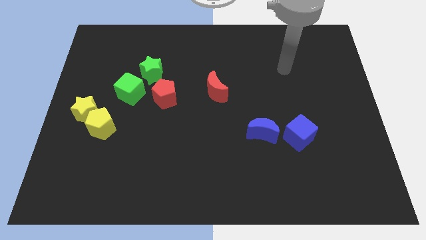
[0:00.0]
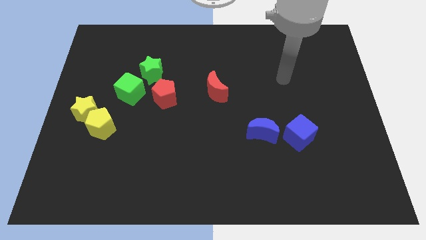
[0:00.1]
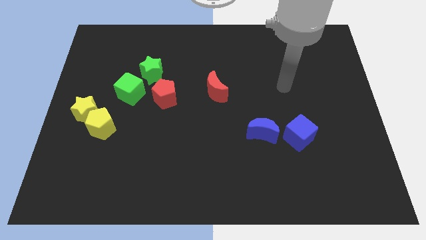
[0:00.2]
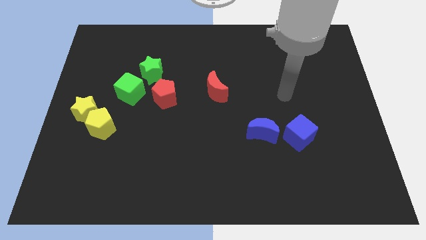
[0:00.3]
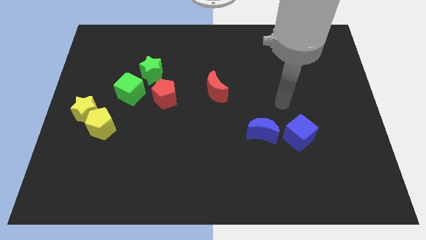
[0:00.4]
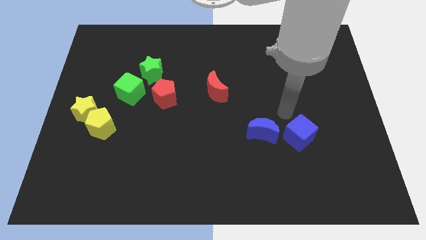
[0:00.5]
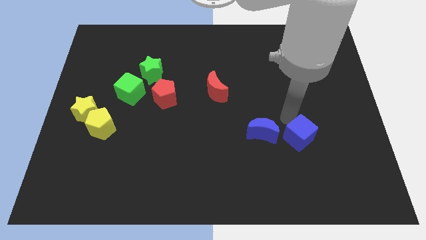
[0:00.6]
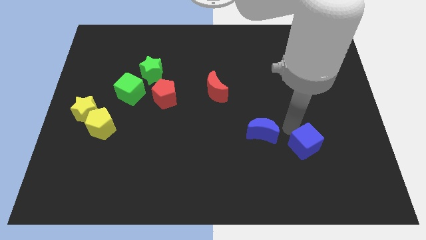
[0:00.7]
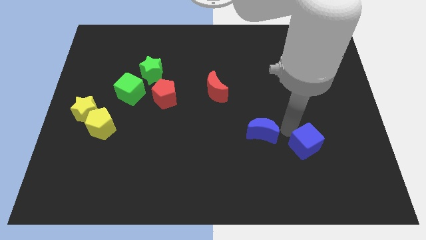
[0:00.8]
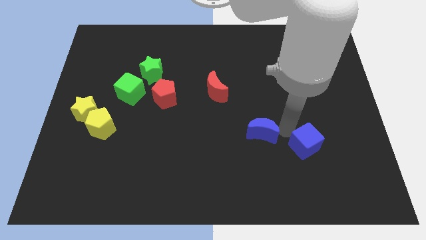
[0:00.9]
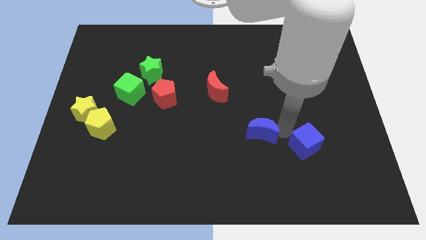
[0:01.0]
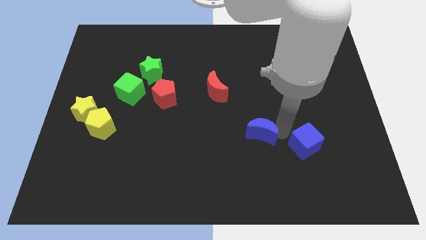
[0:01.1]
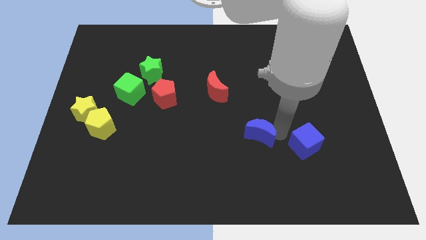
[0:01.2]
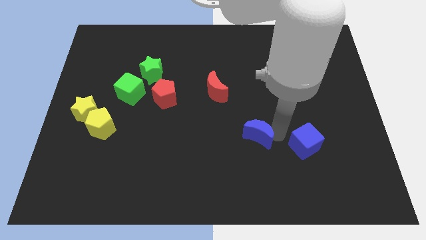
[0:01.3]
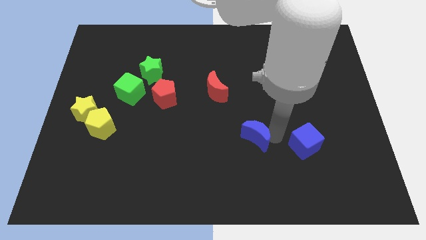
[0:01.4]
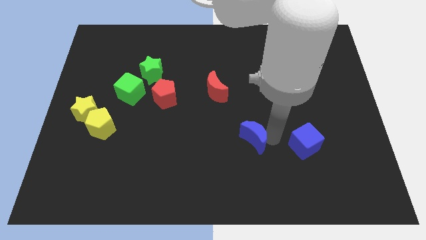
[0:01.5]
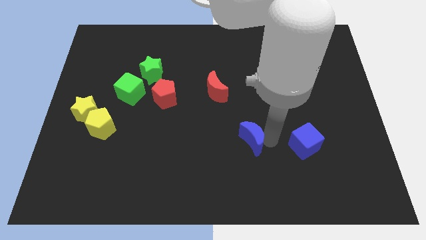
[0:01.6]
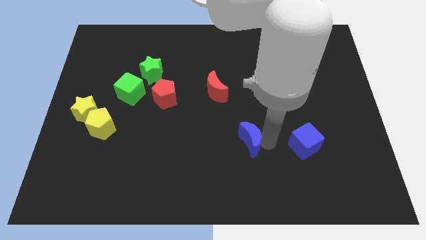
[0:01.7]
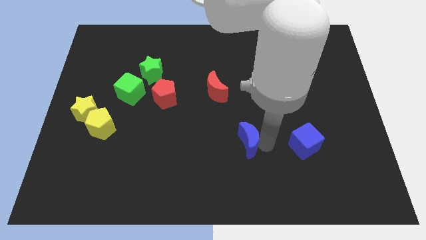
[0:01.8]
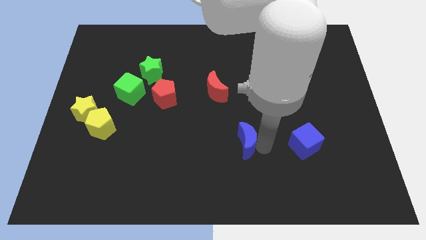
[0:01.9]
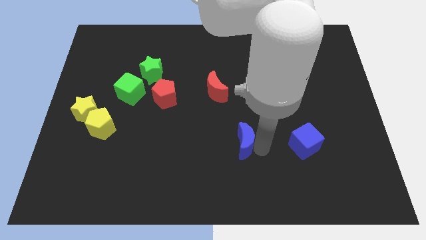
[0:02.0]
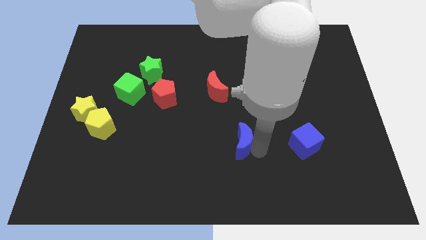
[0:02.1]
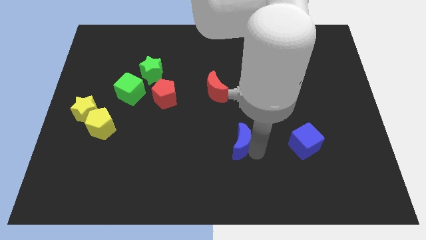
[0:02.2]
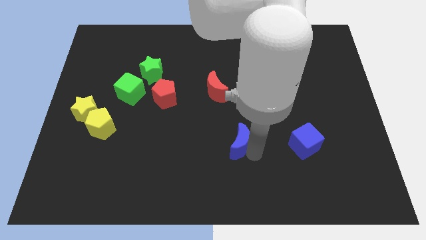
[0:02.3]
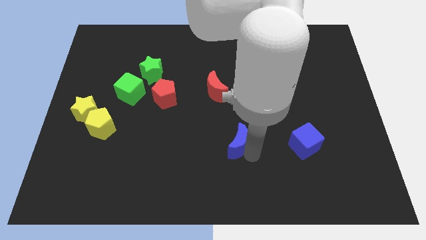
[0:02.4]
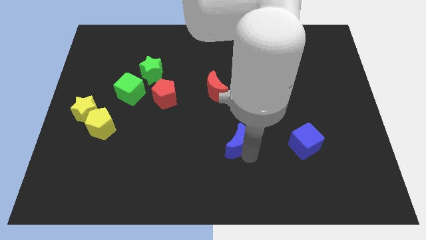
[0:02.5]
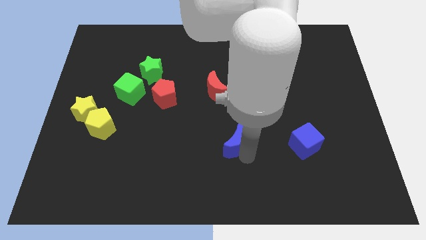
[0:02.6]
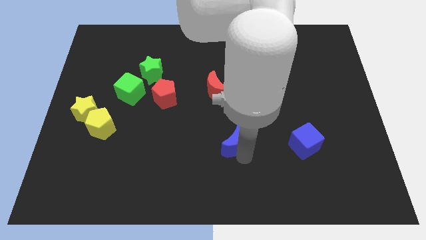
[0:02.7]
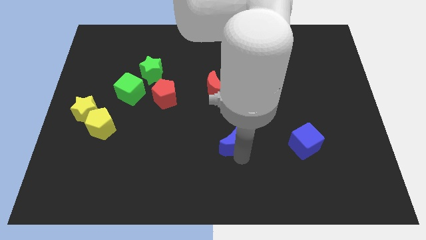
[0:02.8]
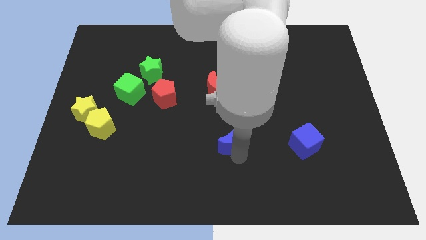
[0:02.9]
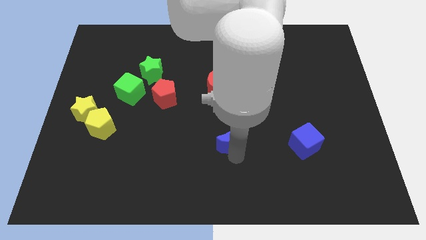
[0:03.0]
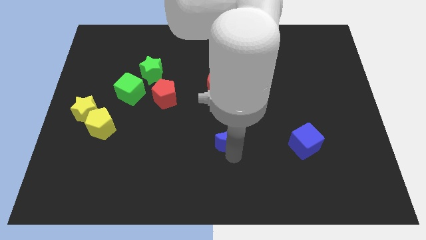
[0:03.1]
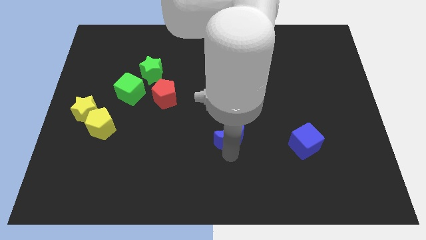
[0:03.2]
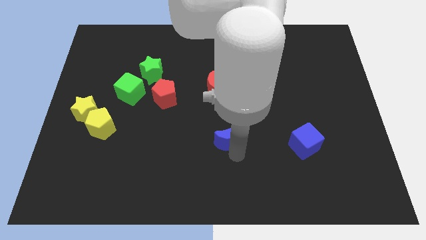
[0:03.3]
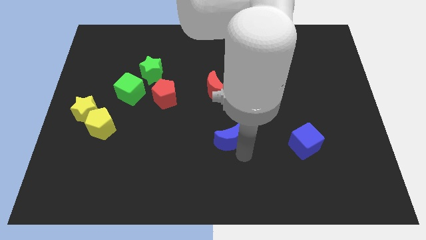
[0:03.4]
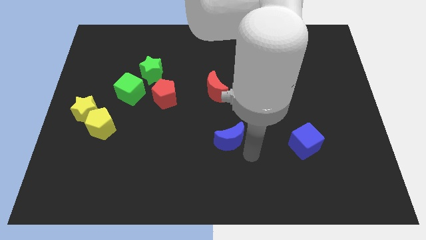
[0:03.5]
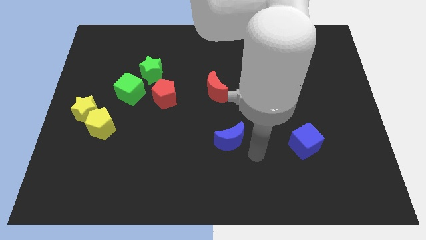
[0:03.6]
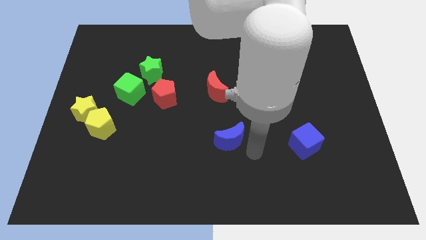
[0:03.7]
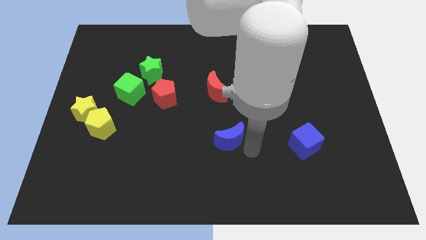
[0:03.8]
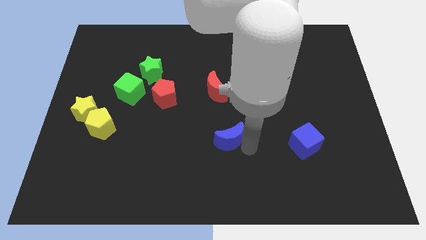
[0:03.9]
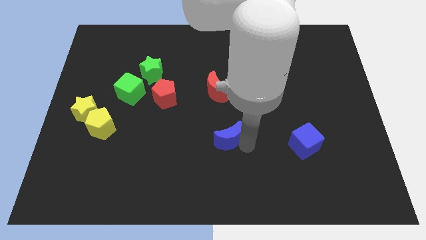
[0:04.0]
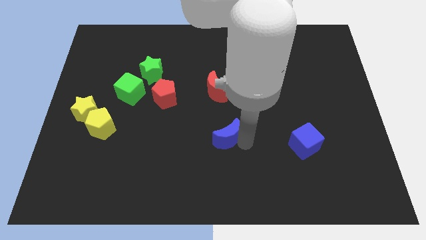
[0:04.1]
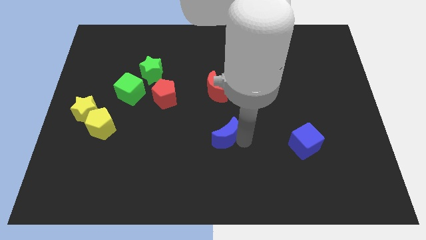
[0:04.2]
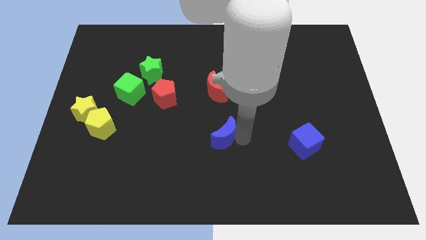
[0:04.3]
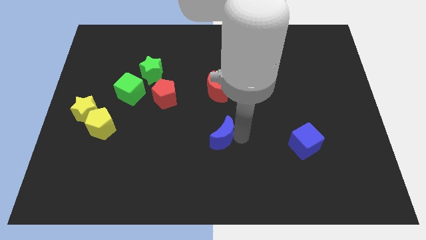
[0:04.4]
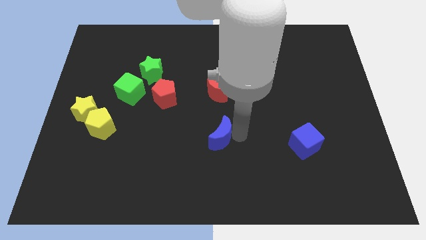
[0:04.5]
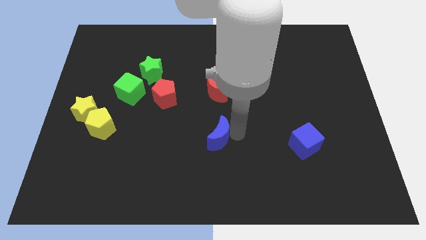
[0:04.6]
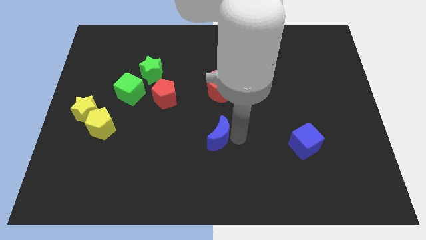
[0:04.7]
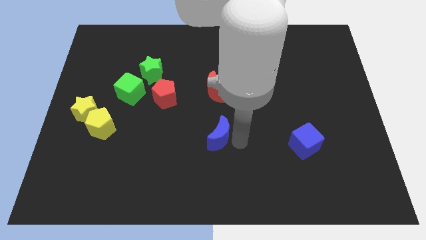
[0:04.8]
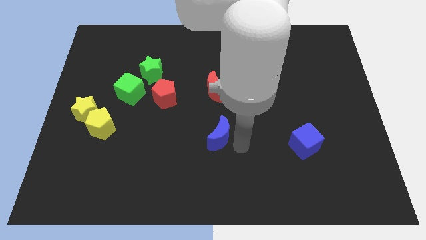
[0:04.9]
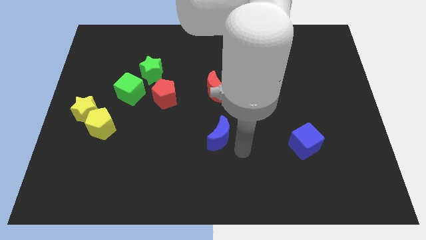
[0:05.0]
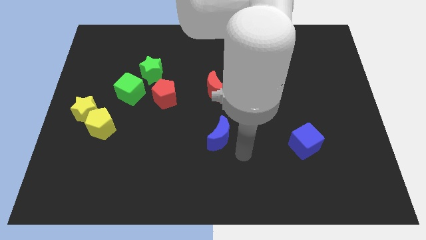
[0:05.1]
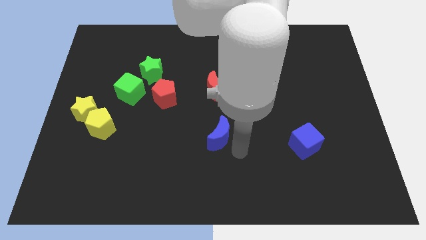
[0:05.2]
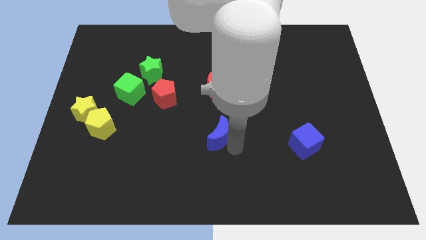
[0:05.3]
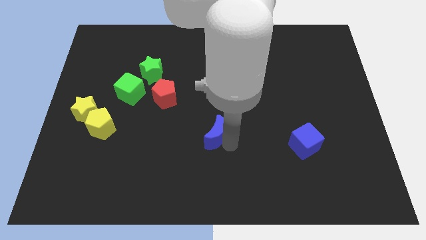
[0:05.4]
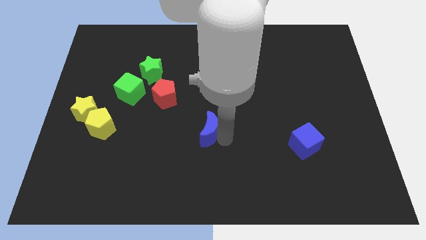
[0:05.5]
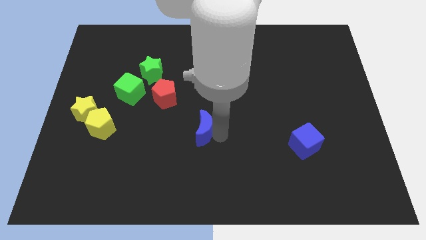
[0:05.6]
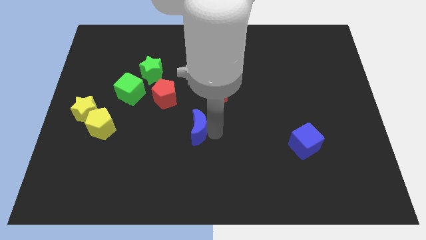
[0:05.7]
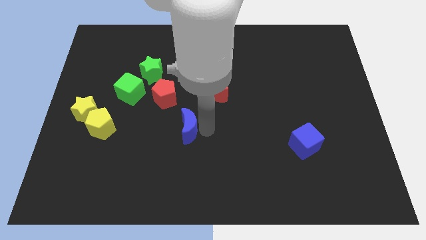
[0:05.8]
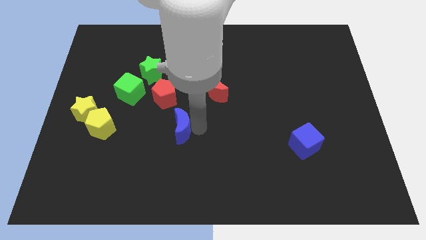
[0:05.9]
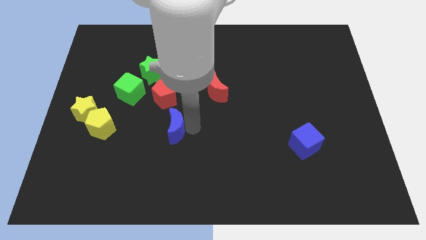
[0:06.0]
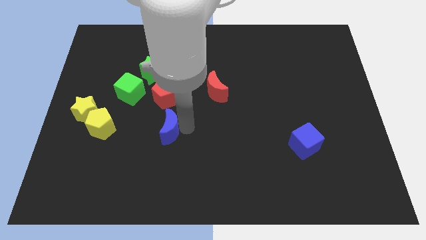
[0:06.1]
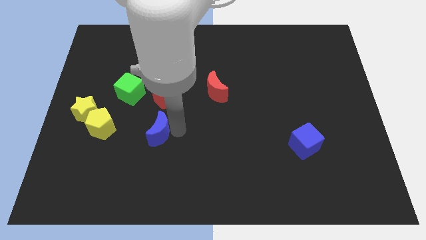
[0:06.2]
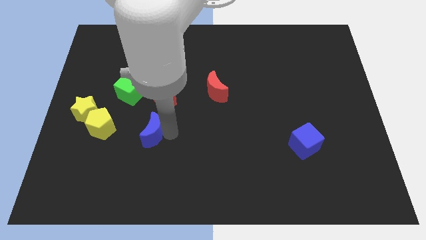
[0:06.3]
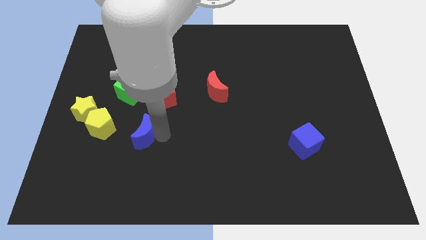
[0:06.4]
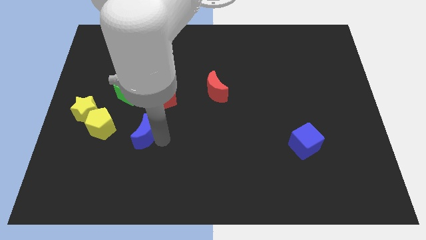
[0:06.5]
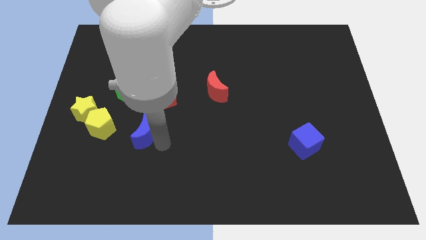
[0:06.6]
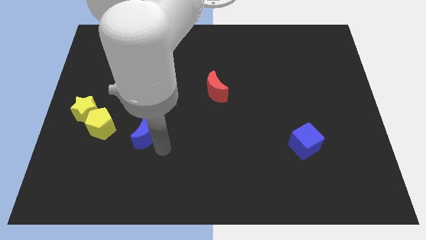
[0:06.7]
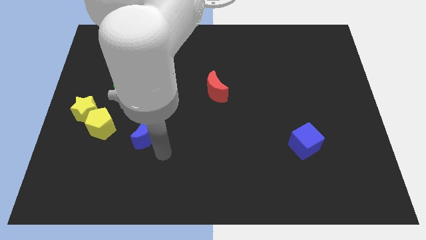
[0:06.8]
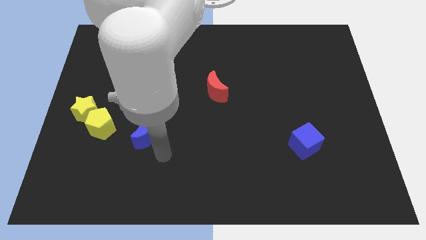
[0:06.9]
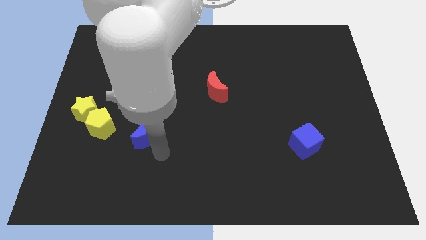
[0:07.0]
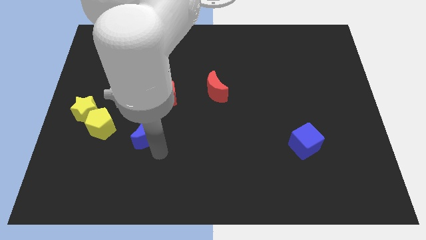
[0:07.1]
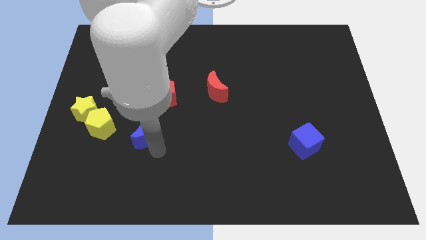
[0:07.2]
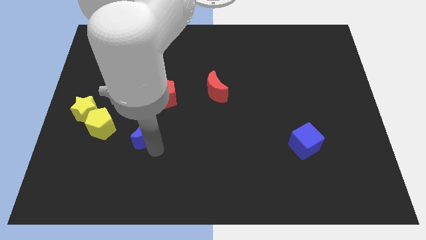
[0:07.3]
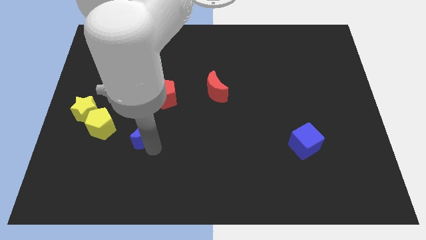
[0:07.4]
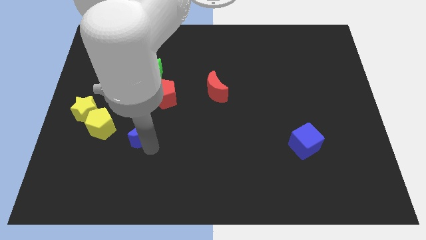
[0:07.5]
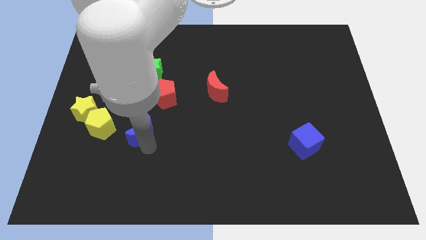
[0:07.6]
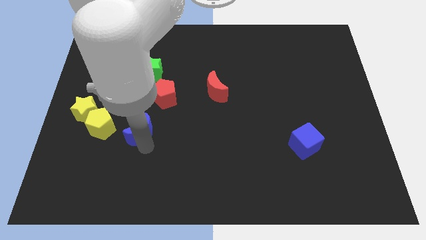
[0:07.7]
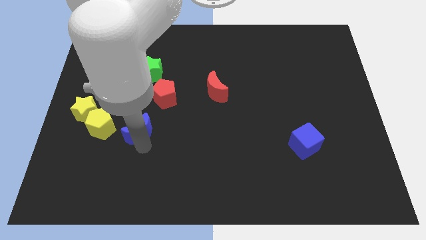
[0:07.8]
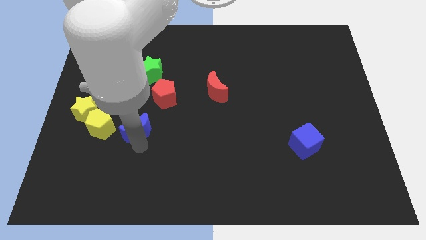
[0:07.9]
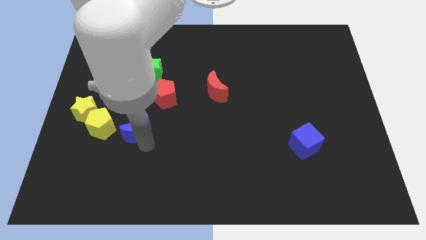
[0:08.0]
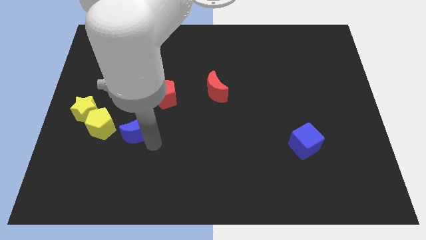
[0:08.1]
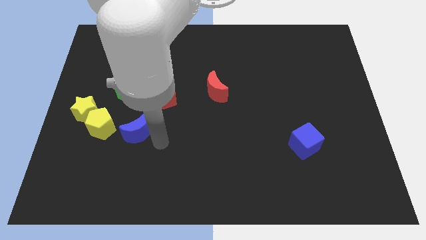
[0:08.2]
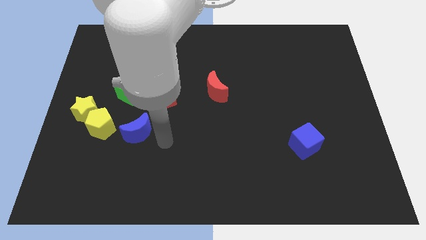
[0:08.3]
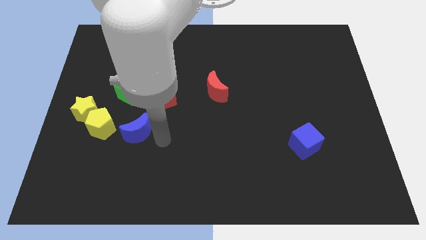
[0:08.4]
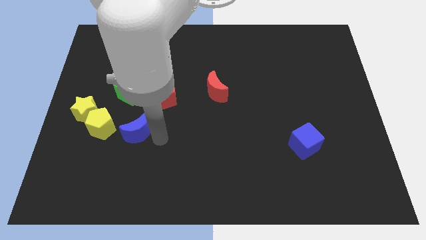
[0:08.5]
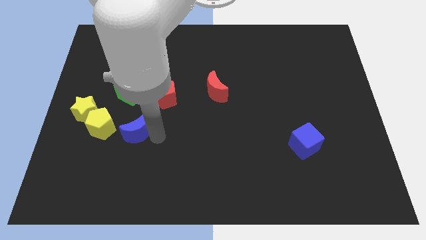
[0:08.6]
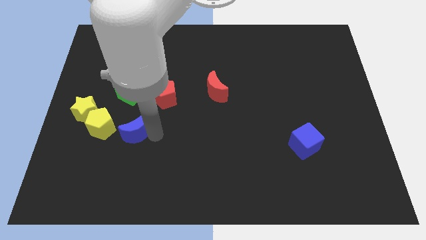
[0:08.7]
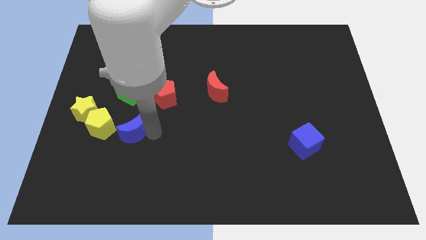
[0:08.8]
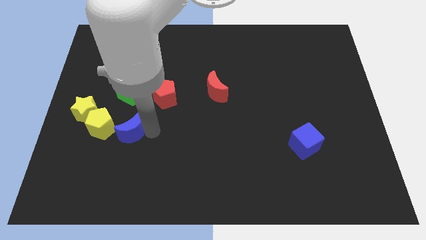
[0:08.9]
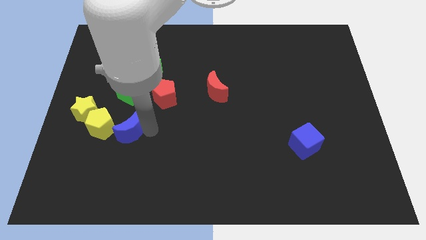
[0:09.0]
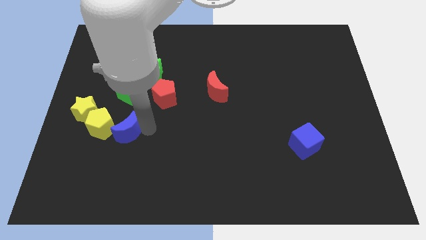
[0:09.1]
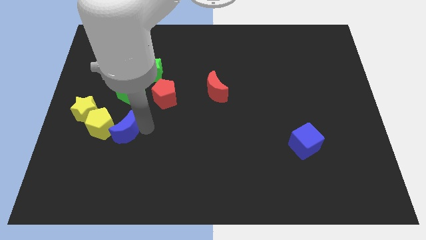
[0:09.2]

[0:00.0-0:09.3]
put the blue moon close to the yellow pentagon
